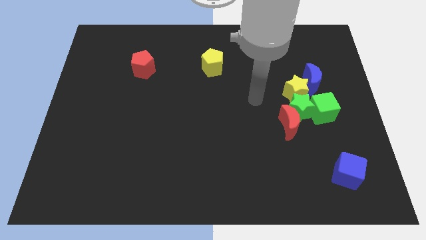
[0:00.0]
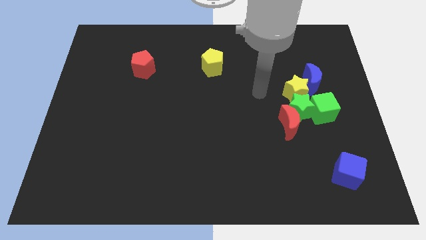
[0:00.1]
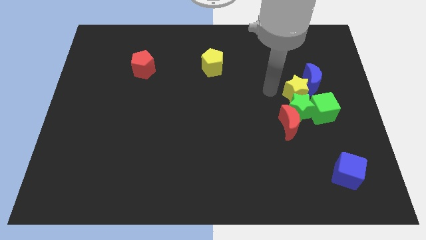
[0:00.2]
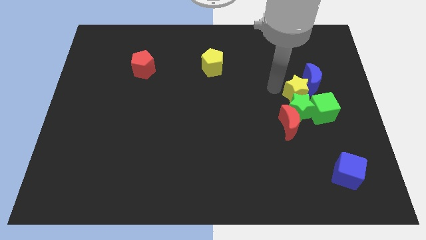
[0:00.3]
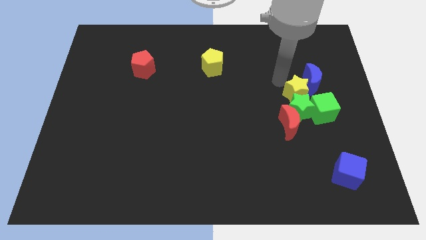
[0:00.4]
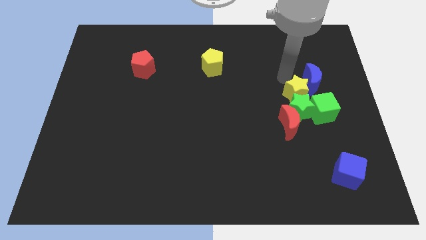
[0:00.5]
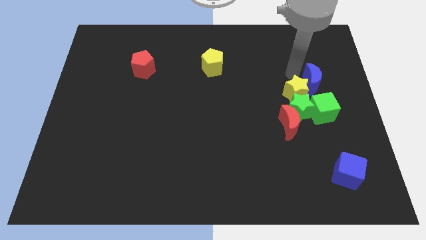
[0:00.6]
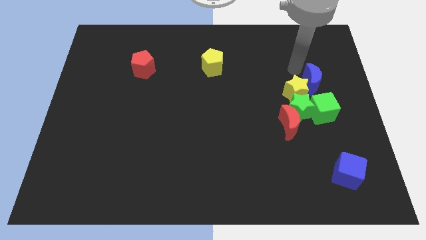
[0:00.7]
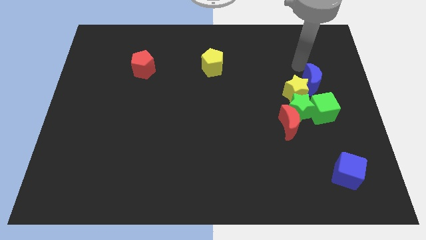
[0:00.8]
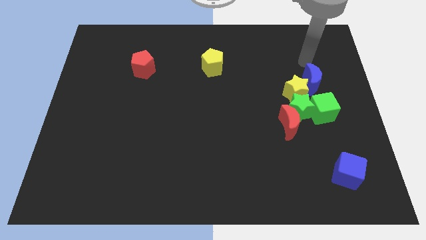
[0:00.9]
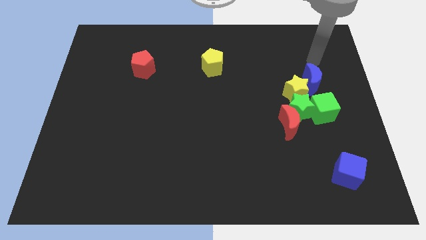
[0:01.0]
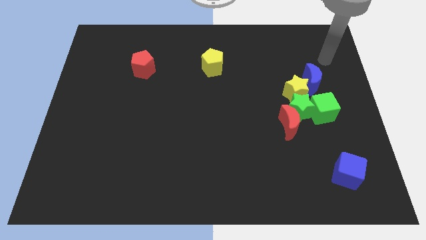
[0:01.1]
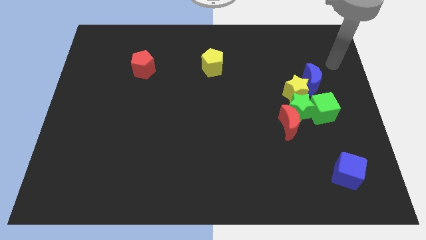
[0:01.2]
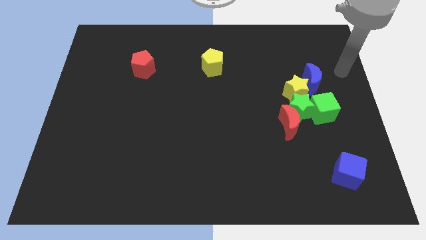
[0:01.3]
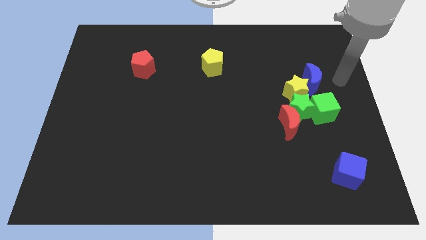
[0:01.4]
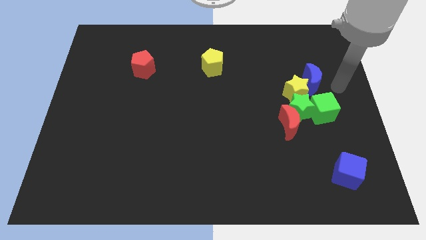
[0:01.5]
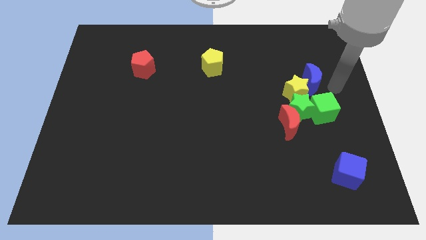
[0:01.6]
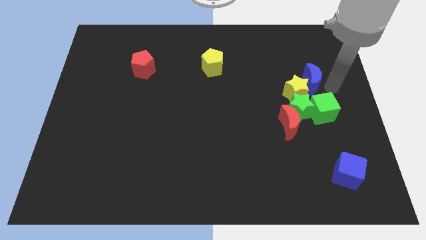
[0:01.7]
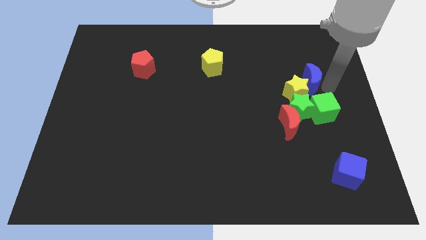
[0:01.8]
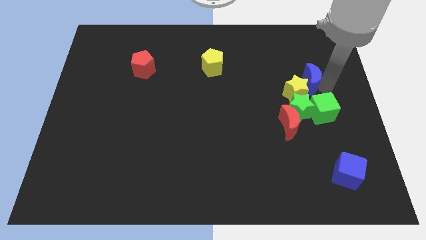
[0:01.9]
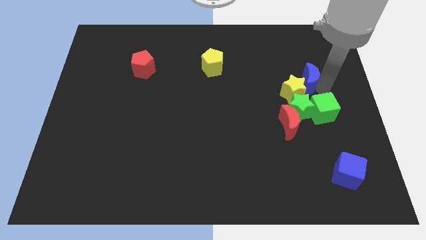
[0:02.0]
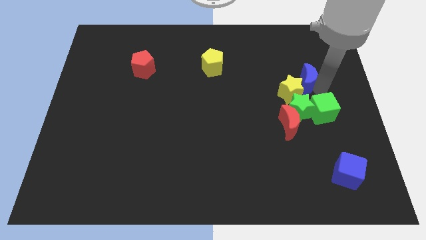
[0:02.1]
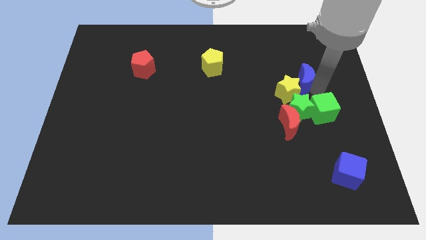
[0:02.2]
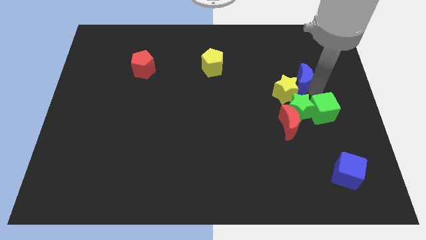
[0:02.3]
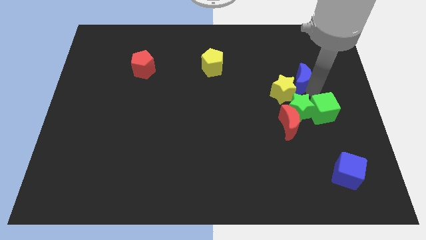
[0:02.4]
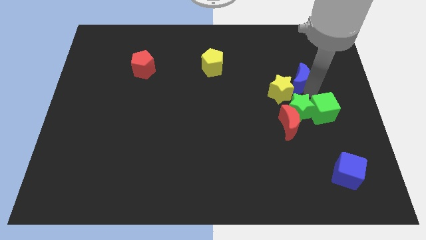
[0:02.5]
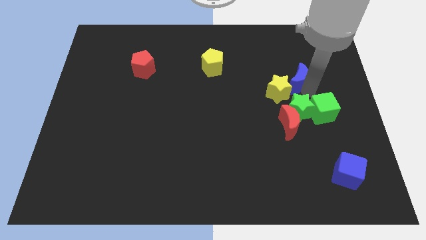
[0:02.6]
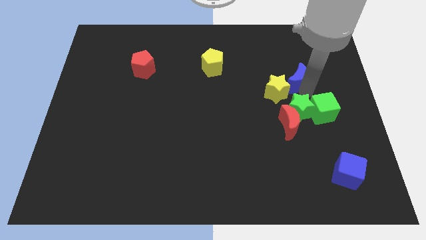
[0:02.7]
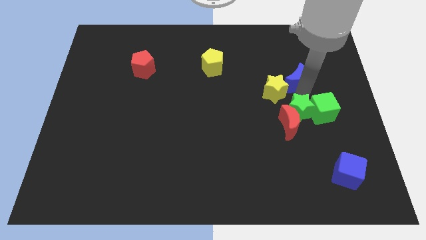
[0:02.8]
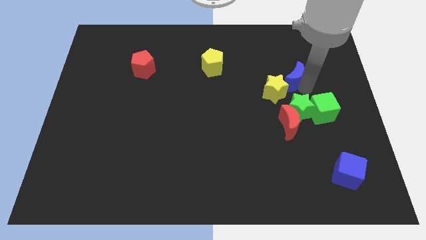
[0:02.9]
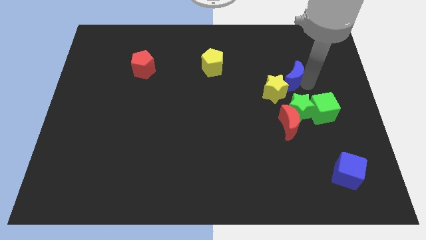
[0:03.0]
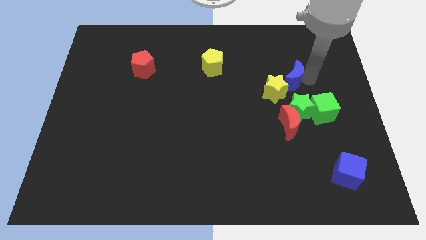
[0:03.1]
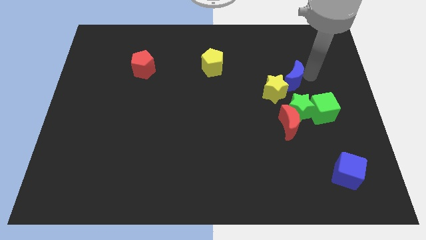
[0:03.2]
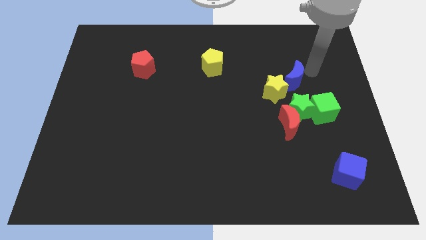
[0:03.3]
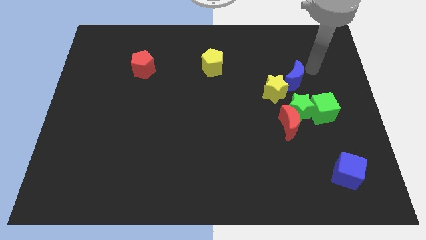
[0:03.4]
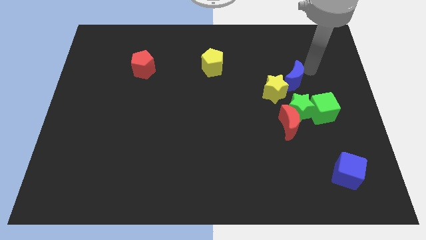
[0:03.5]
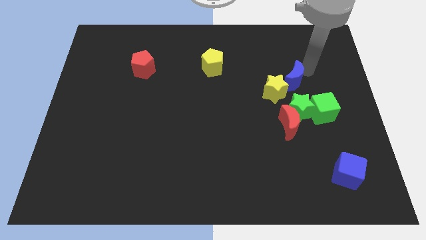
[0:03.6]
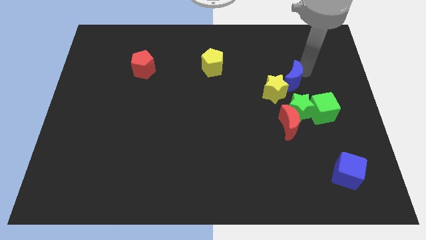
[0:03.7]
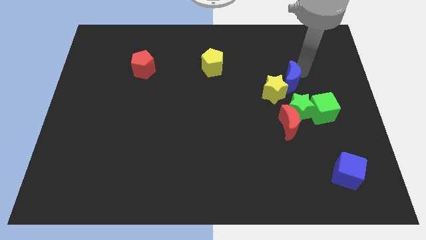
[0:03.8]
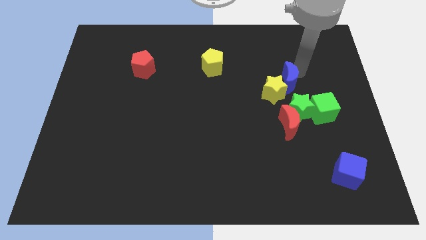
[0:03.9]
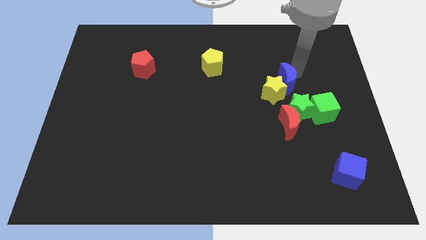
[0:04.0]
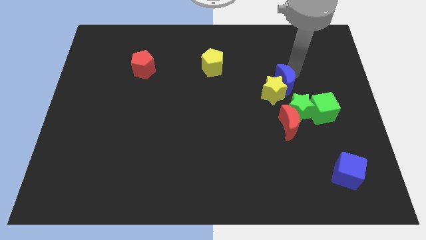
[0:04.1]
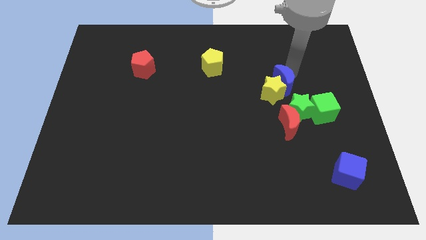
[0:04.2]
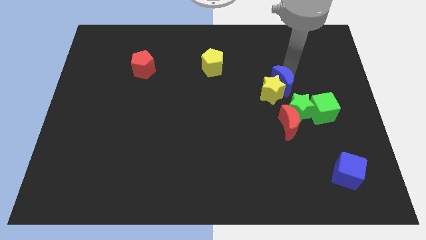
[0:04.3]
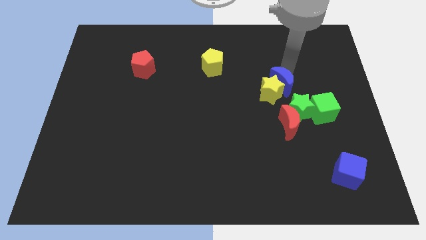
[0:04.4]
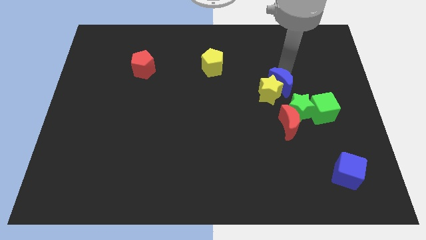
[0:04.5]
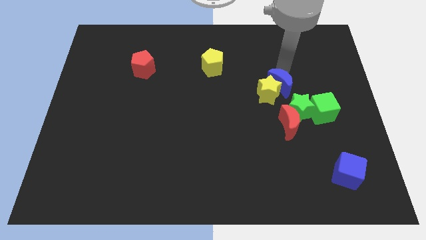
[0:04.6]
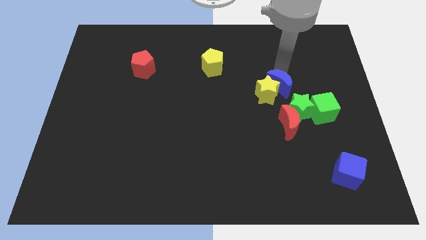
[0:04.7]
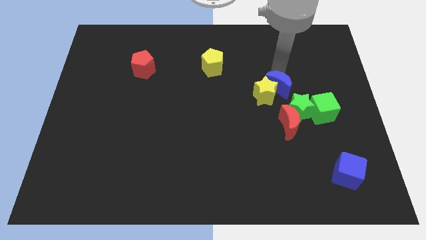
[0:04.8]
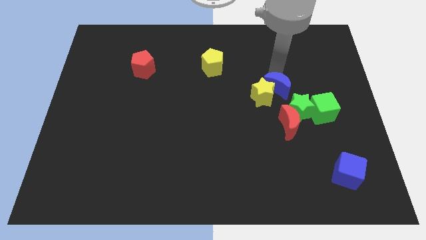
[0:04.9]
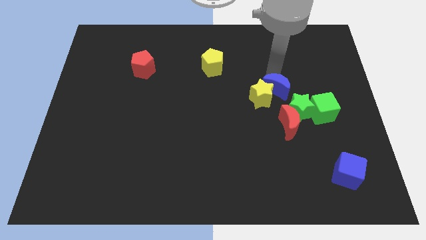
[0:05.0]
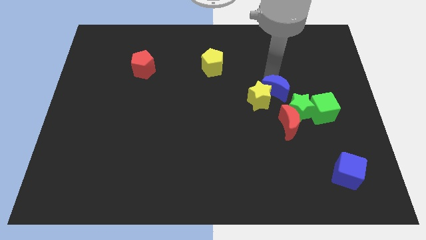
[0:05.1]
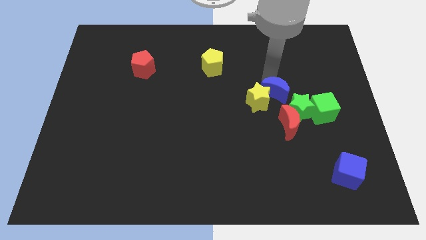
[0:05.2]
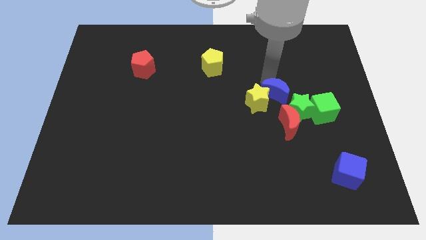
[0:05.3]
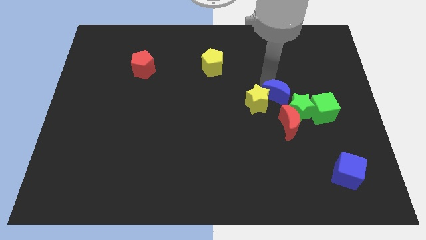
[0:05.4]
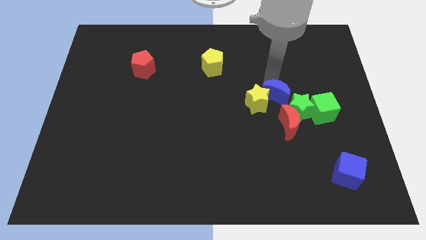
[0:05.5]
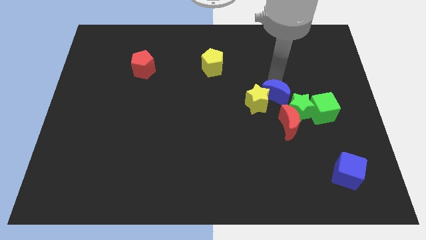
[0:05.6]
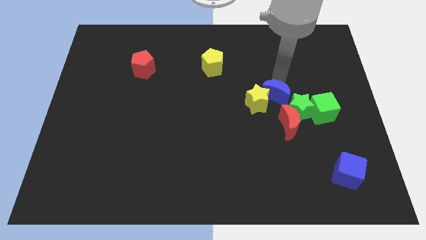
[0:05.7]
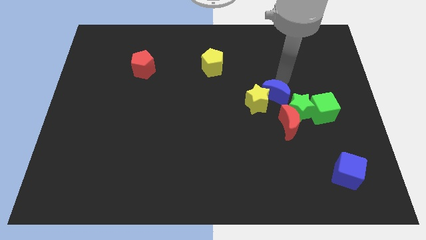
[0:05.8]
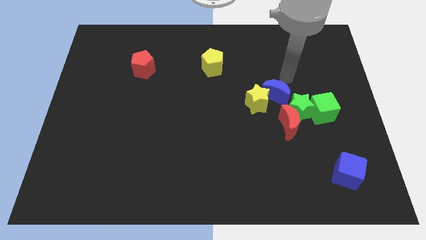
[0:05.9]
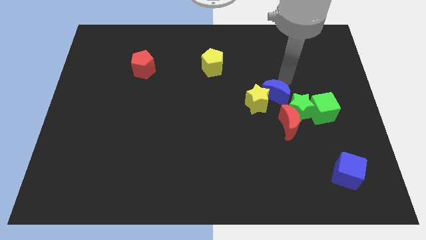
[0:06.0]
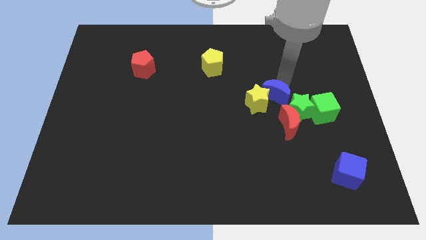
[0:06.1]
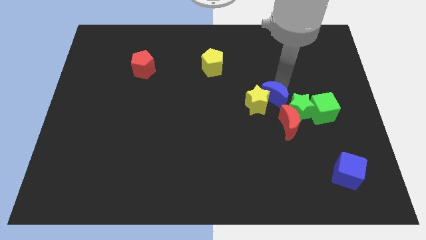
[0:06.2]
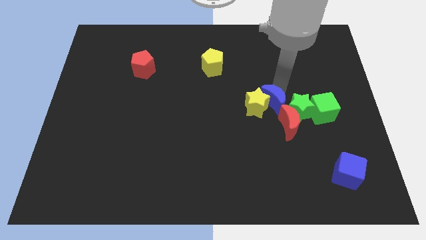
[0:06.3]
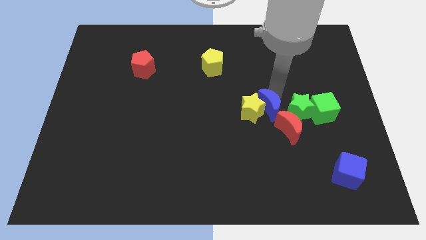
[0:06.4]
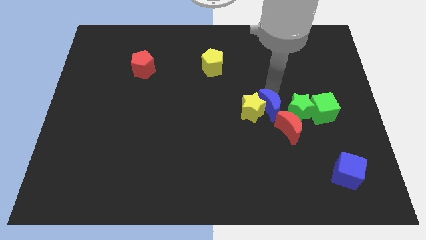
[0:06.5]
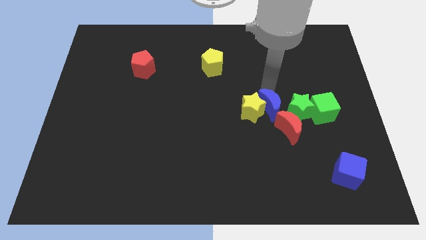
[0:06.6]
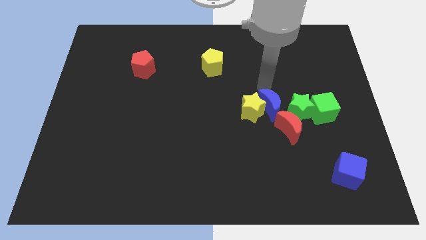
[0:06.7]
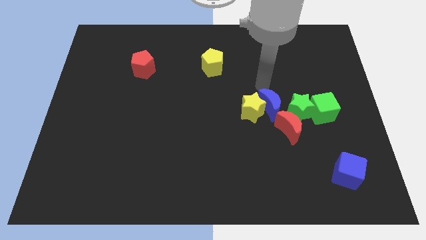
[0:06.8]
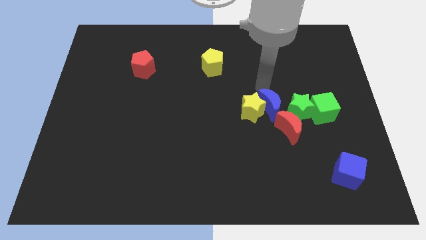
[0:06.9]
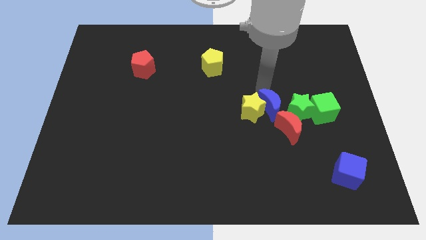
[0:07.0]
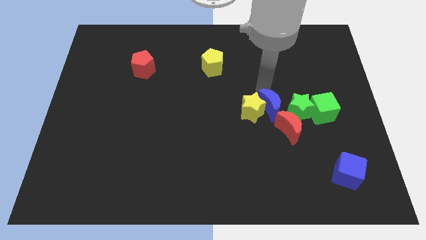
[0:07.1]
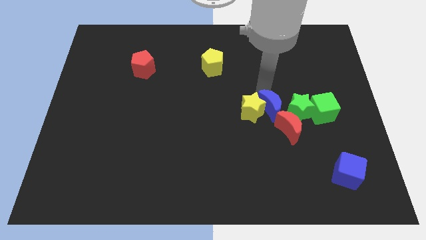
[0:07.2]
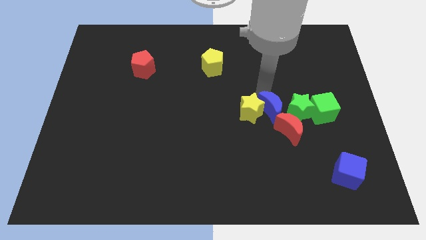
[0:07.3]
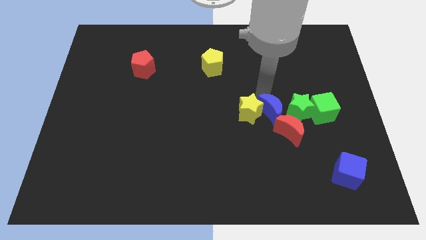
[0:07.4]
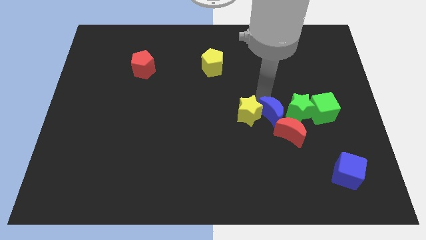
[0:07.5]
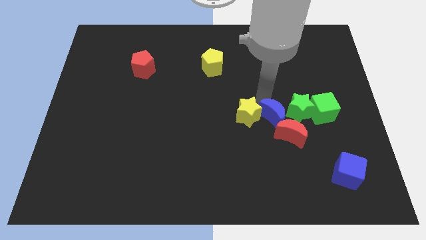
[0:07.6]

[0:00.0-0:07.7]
slide the blue moon towards the red moon
